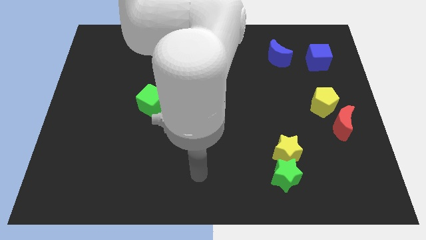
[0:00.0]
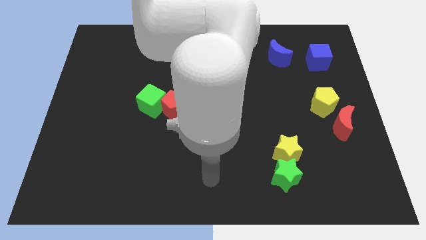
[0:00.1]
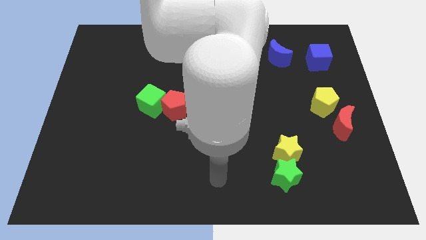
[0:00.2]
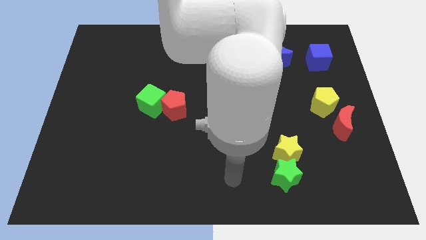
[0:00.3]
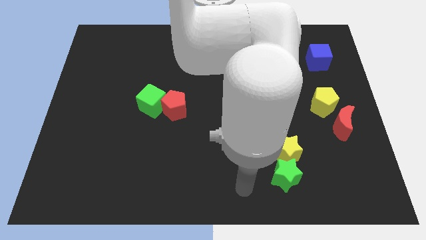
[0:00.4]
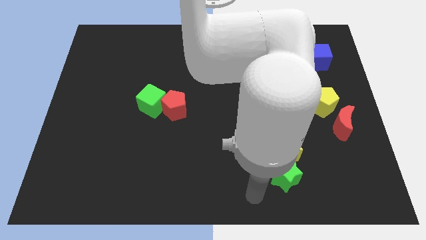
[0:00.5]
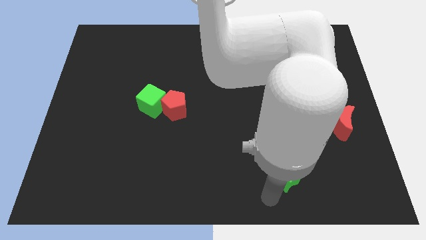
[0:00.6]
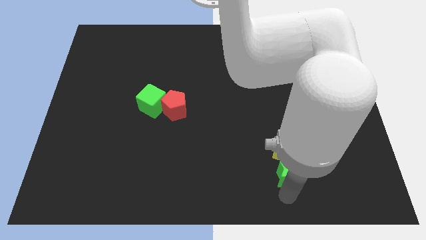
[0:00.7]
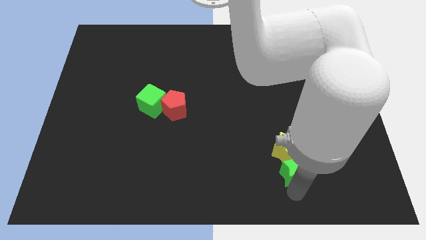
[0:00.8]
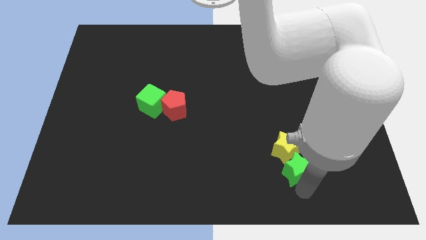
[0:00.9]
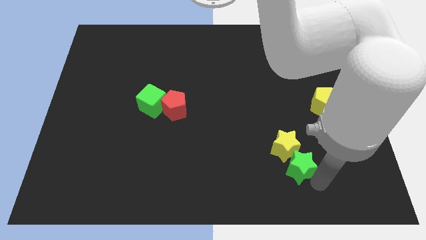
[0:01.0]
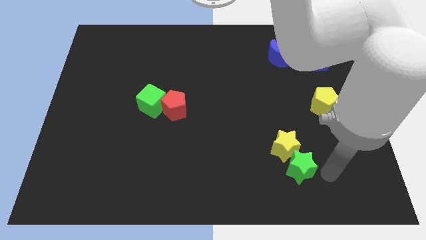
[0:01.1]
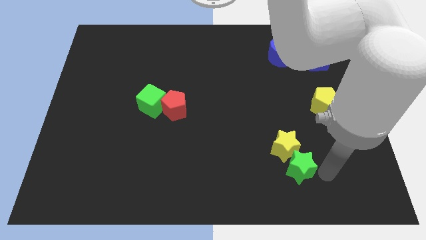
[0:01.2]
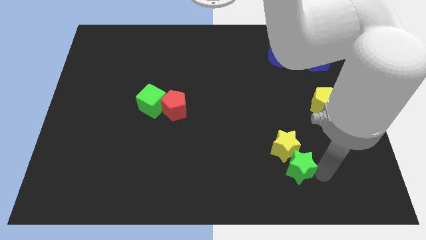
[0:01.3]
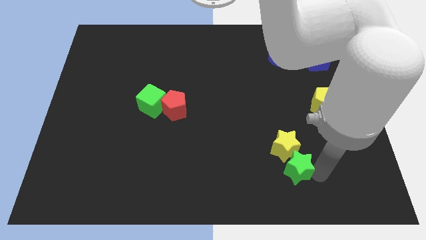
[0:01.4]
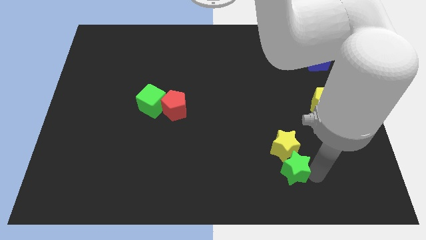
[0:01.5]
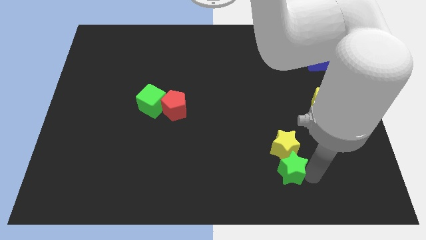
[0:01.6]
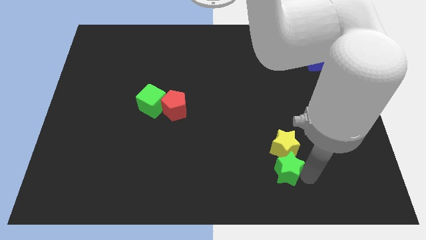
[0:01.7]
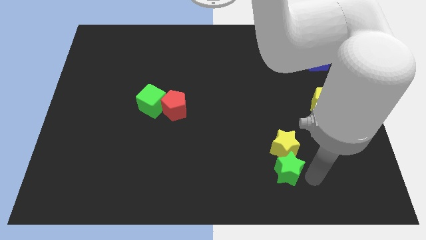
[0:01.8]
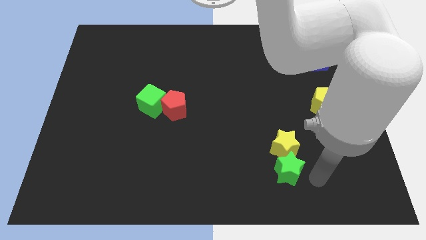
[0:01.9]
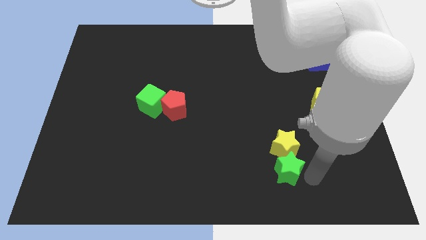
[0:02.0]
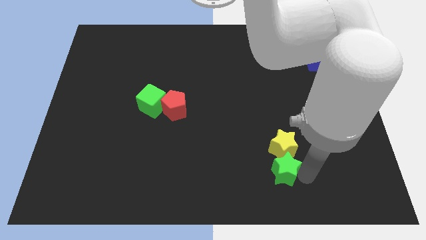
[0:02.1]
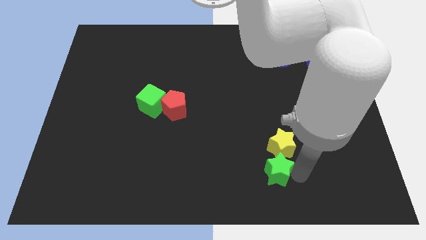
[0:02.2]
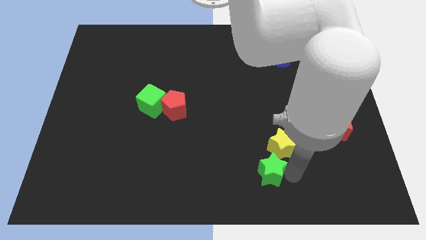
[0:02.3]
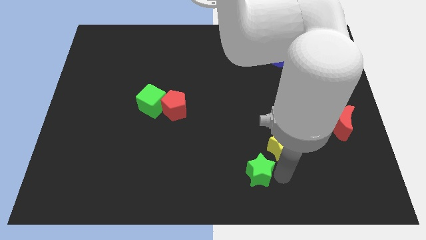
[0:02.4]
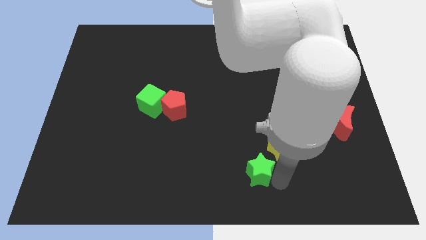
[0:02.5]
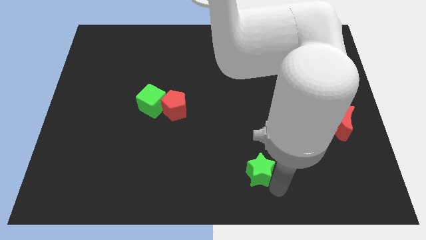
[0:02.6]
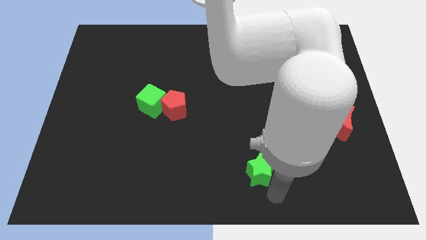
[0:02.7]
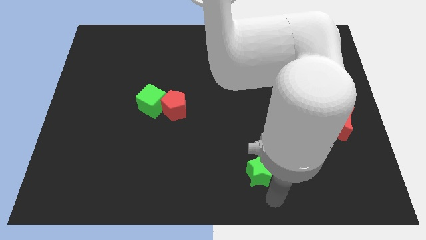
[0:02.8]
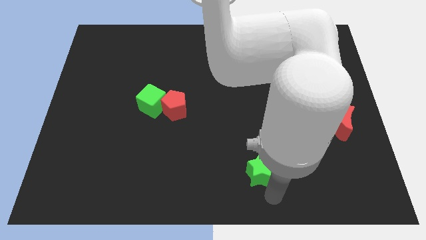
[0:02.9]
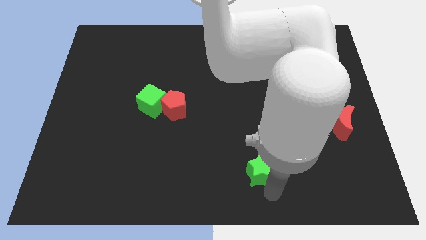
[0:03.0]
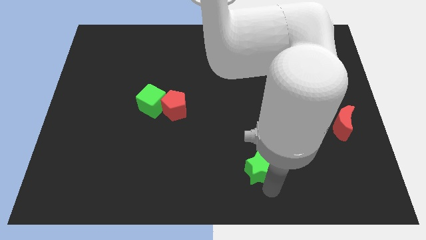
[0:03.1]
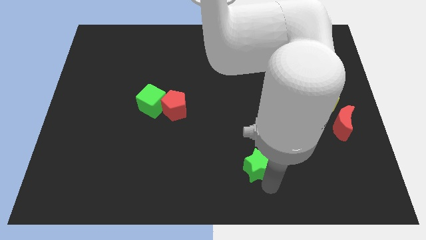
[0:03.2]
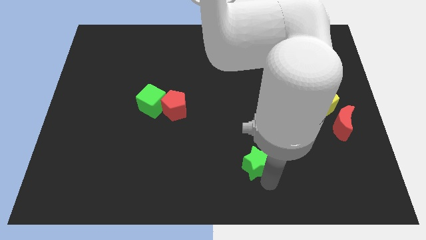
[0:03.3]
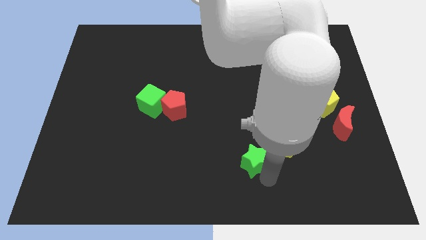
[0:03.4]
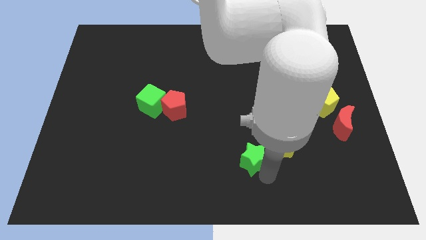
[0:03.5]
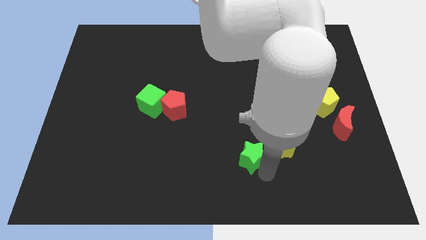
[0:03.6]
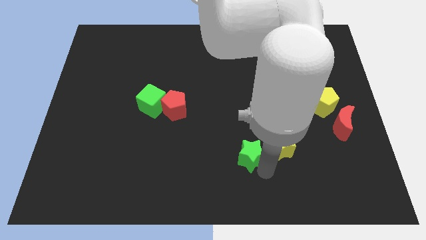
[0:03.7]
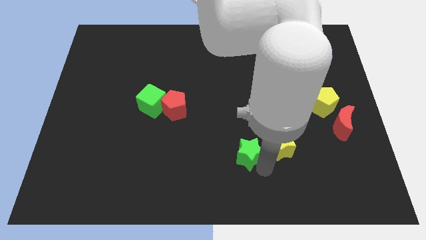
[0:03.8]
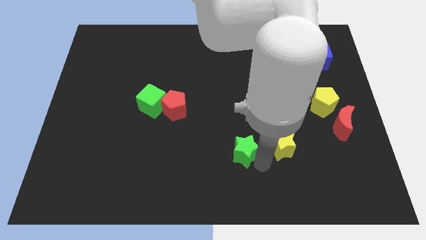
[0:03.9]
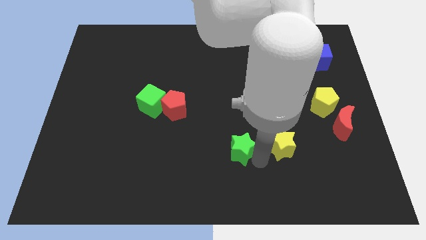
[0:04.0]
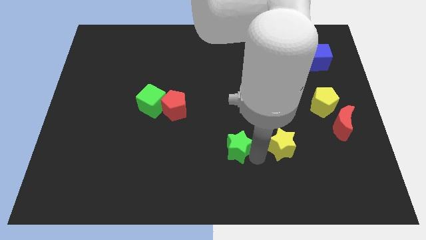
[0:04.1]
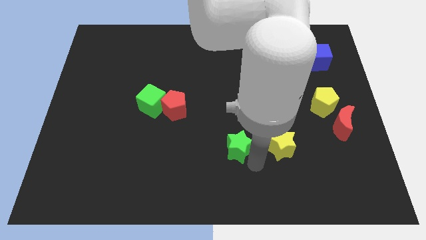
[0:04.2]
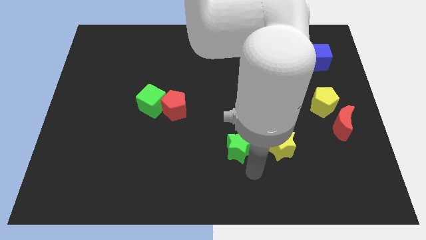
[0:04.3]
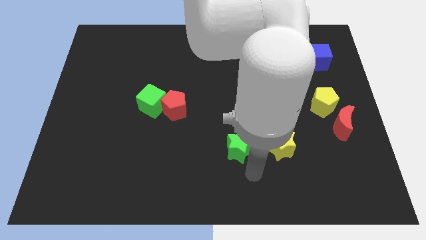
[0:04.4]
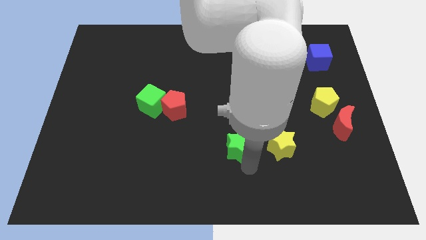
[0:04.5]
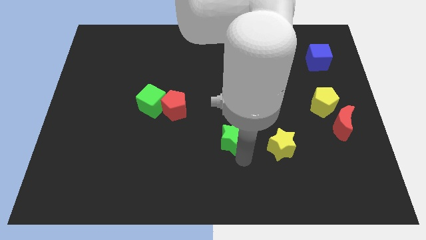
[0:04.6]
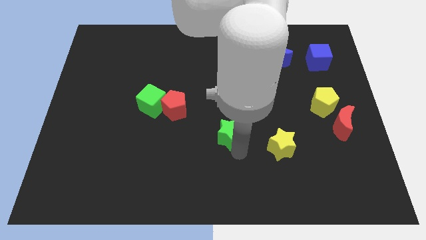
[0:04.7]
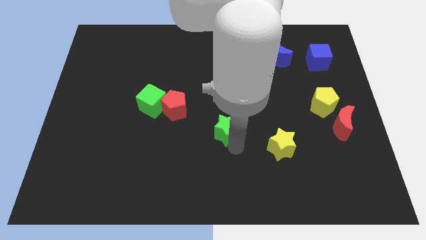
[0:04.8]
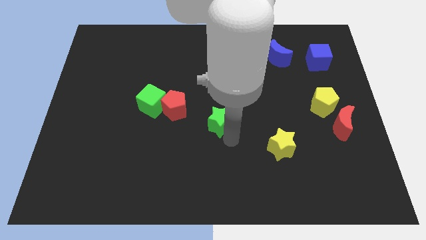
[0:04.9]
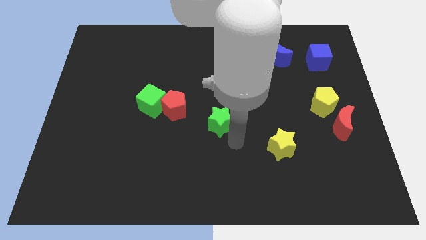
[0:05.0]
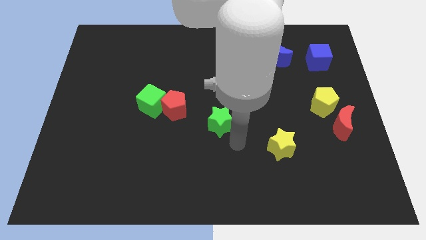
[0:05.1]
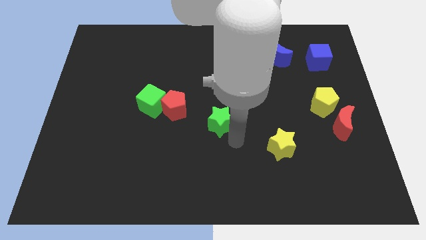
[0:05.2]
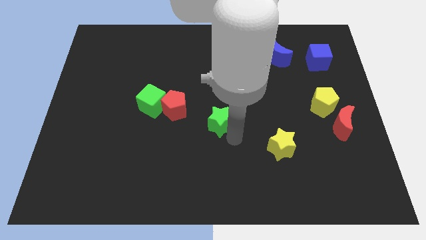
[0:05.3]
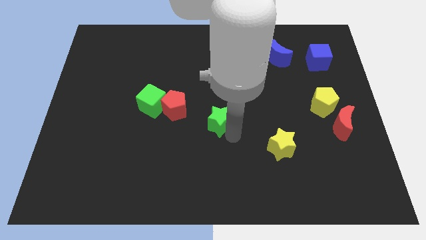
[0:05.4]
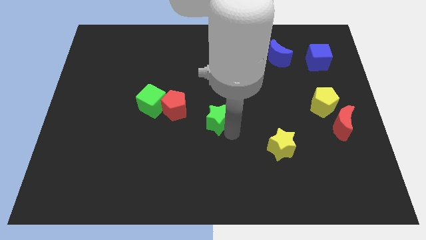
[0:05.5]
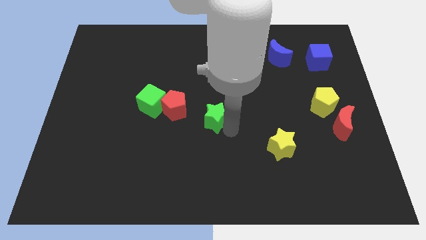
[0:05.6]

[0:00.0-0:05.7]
push the green star upwards and left diagonally

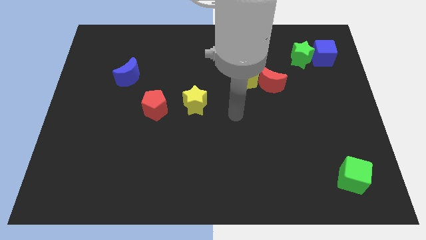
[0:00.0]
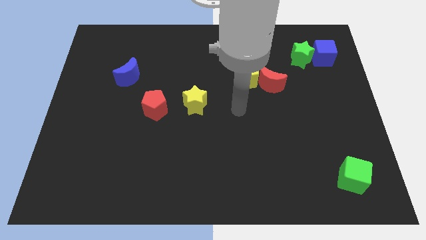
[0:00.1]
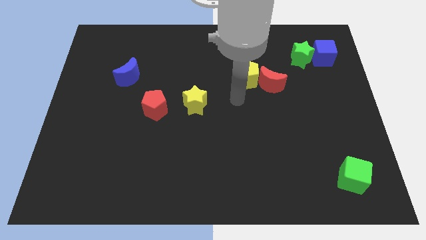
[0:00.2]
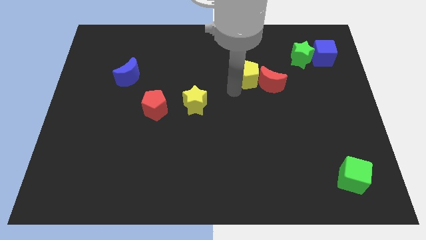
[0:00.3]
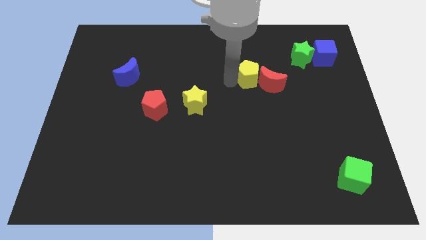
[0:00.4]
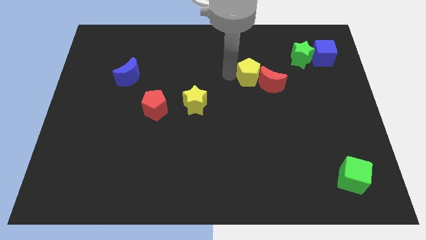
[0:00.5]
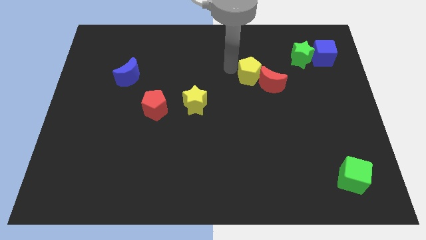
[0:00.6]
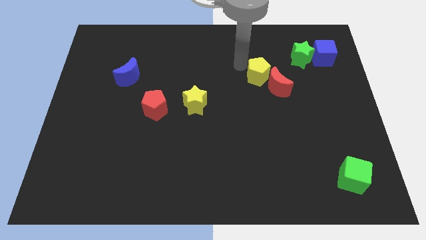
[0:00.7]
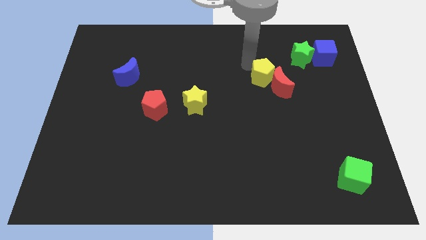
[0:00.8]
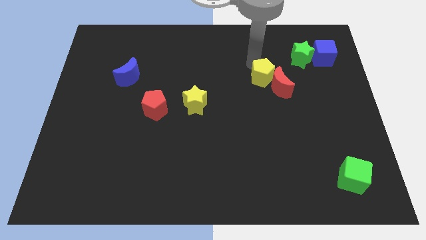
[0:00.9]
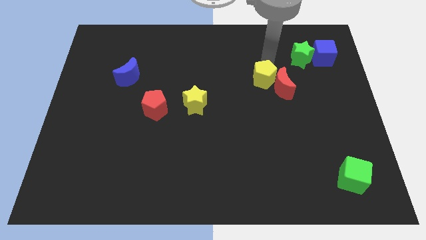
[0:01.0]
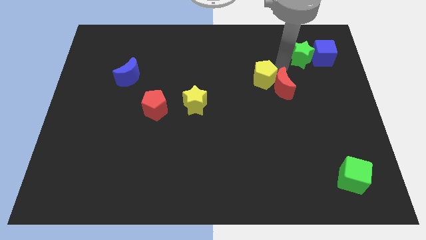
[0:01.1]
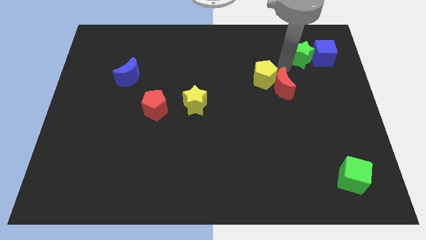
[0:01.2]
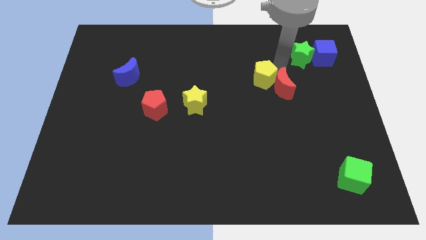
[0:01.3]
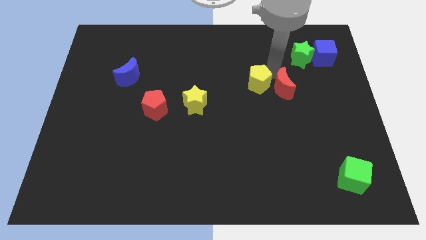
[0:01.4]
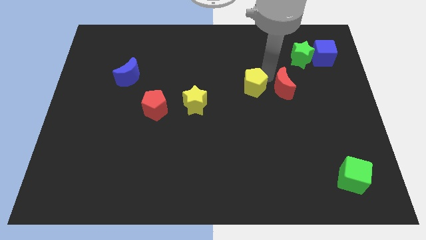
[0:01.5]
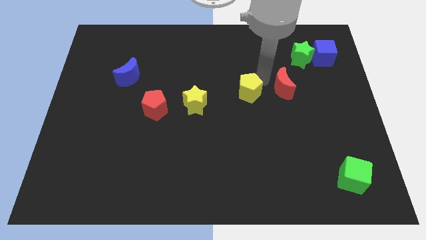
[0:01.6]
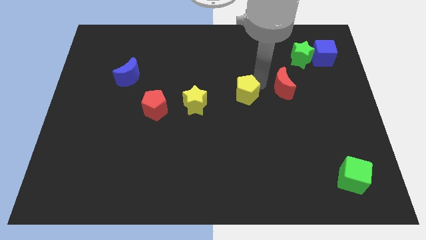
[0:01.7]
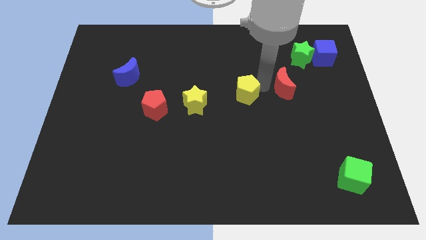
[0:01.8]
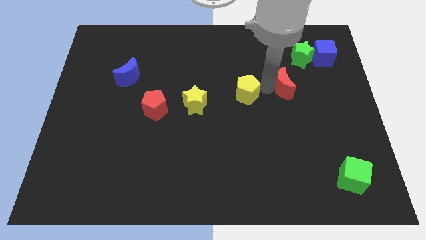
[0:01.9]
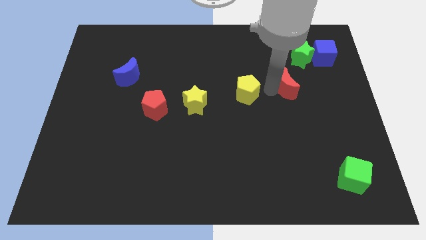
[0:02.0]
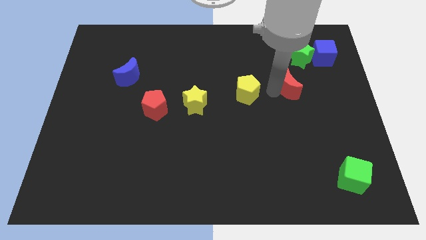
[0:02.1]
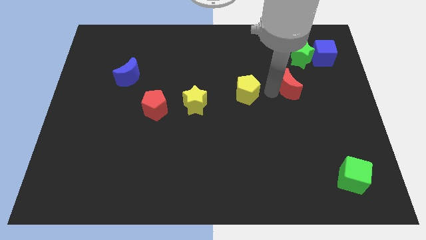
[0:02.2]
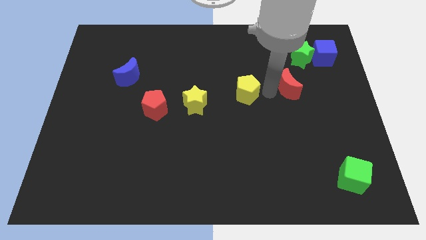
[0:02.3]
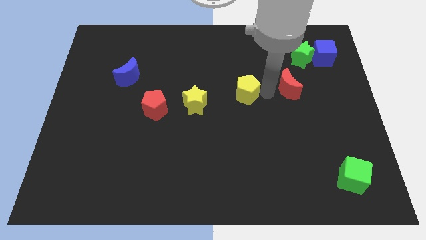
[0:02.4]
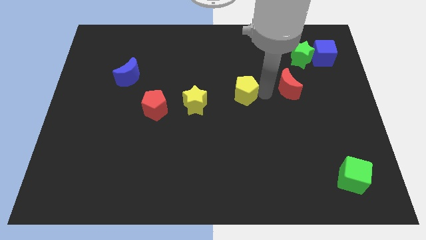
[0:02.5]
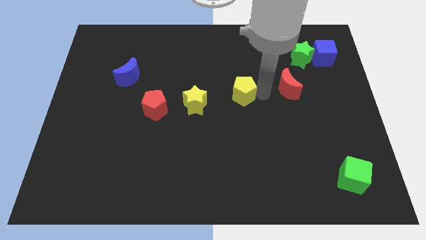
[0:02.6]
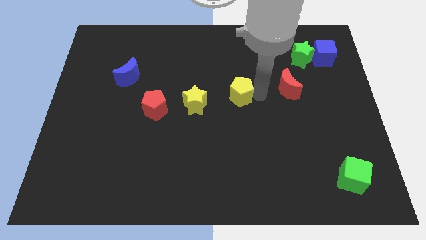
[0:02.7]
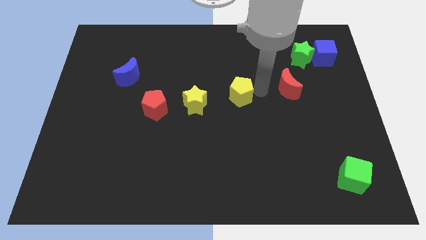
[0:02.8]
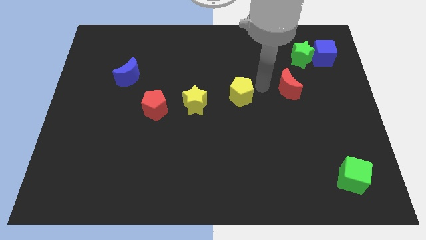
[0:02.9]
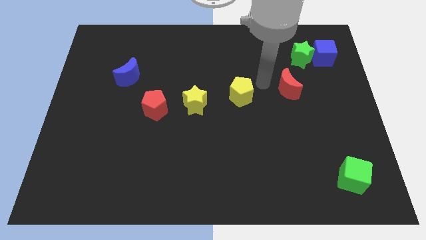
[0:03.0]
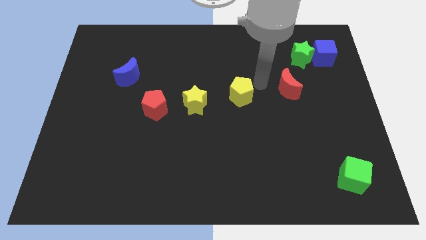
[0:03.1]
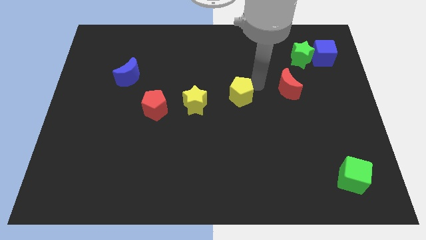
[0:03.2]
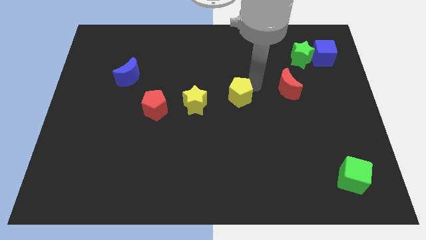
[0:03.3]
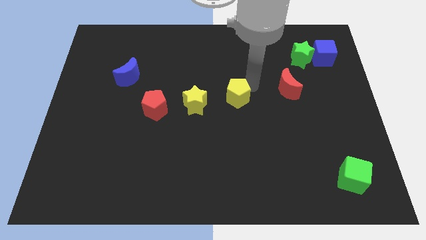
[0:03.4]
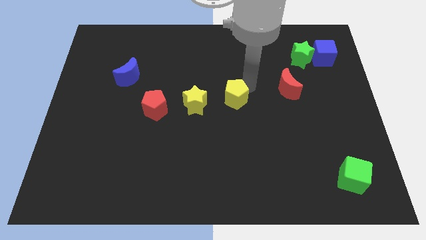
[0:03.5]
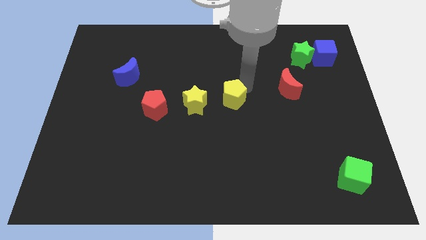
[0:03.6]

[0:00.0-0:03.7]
move the yellow pentagon downwards and then to the left a little
